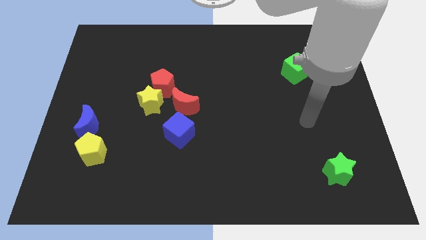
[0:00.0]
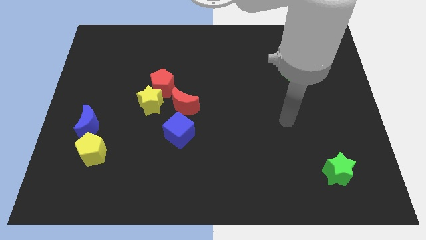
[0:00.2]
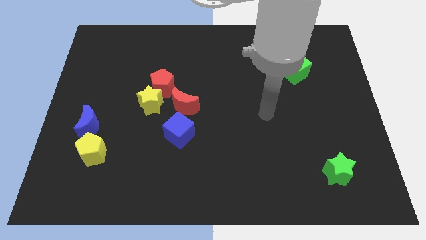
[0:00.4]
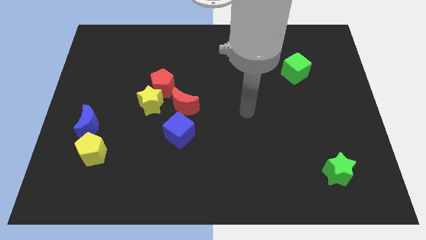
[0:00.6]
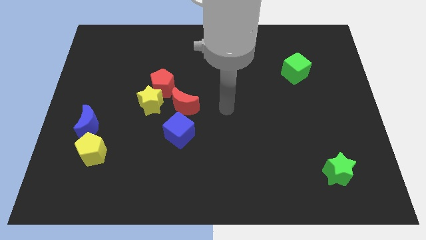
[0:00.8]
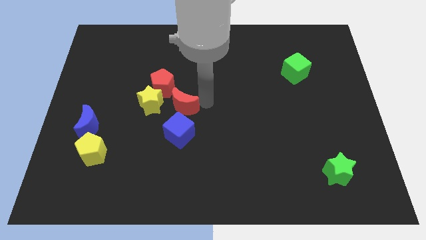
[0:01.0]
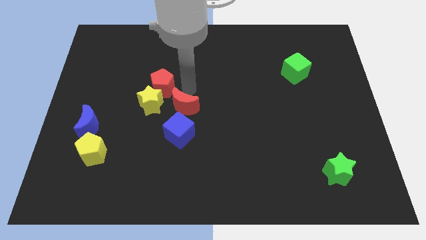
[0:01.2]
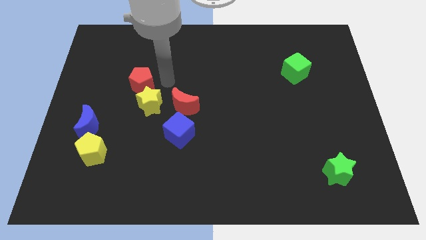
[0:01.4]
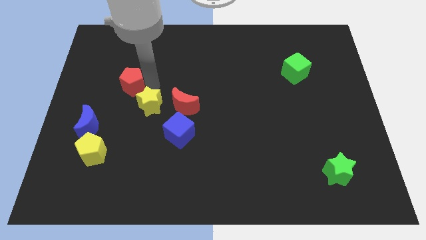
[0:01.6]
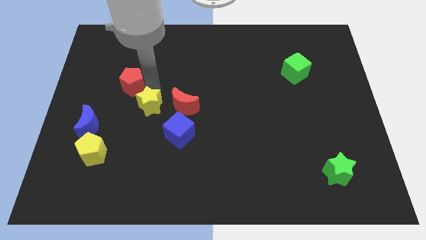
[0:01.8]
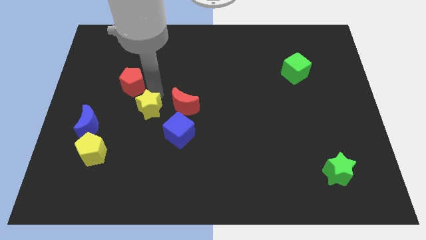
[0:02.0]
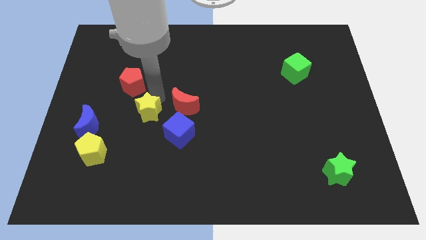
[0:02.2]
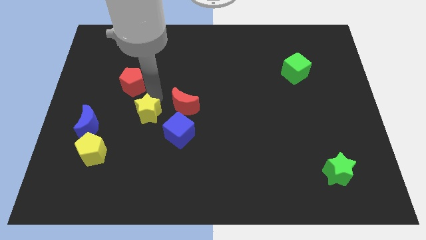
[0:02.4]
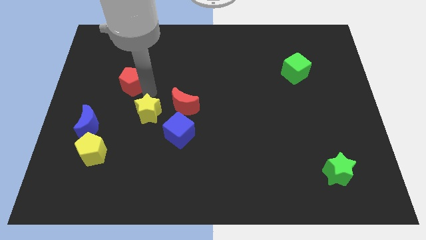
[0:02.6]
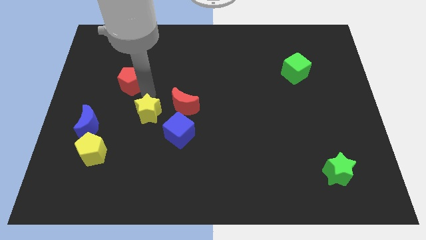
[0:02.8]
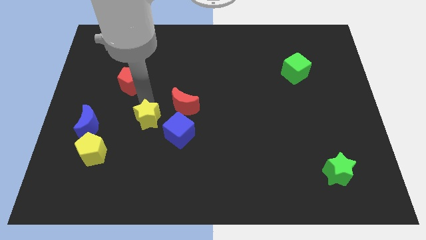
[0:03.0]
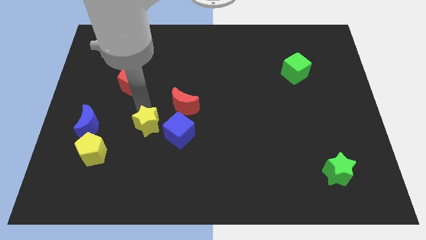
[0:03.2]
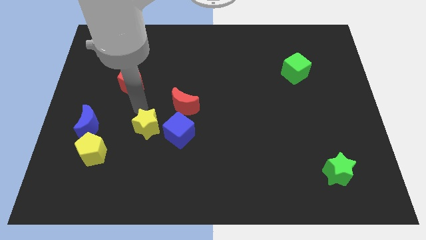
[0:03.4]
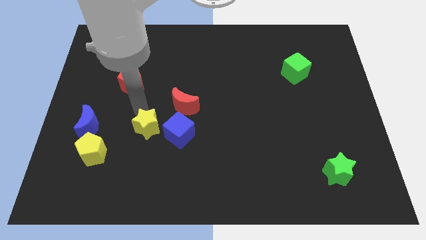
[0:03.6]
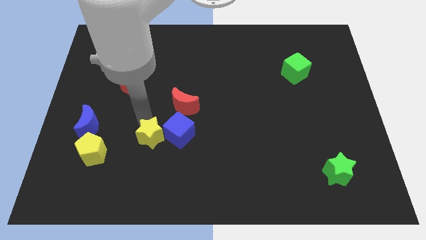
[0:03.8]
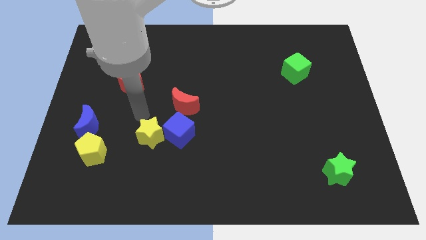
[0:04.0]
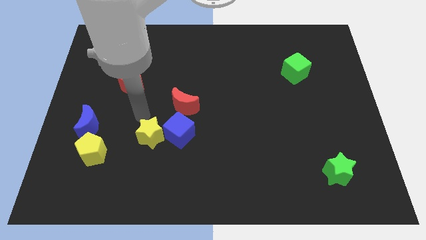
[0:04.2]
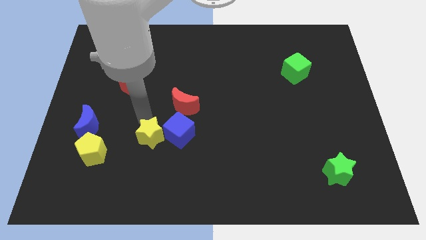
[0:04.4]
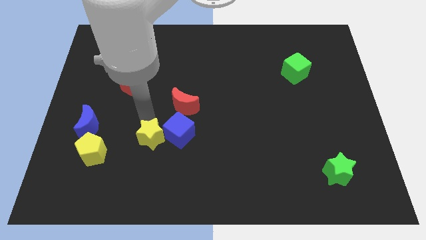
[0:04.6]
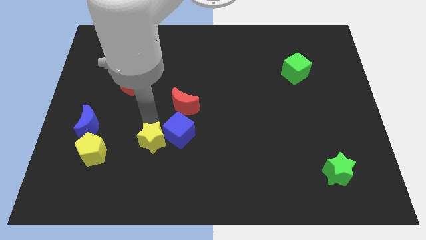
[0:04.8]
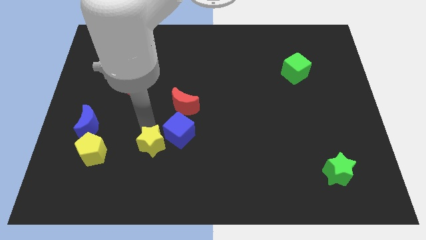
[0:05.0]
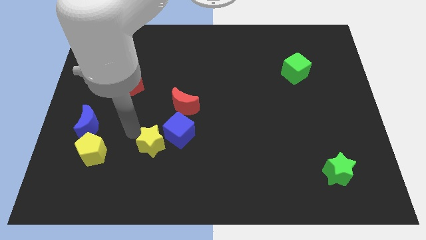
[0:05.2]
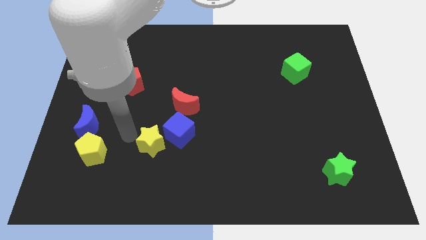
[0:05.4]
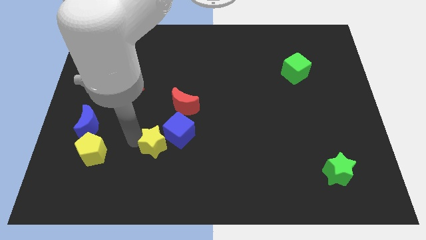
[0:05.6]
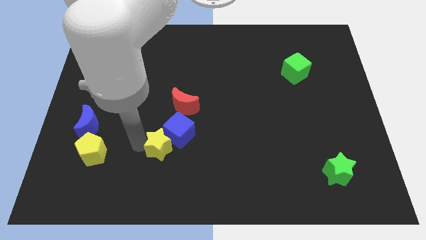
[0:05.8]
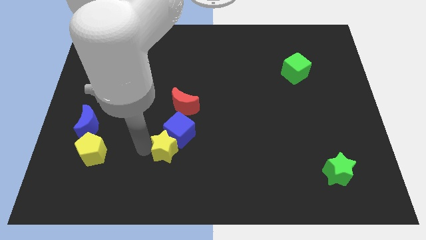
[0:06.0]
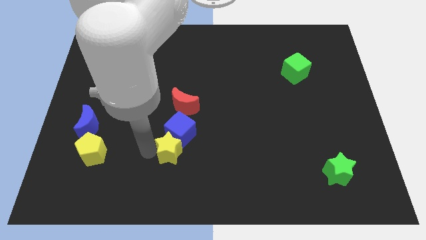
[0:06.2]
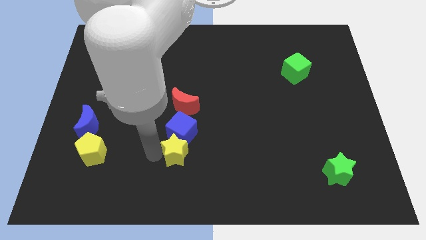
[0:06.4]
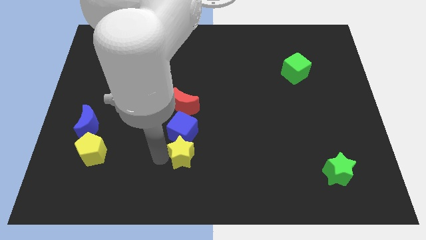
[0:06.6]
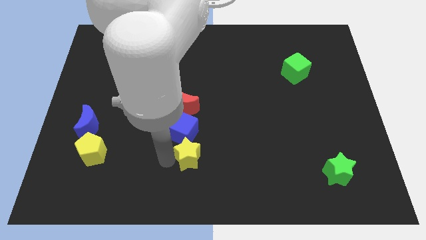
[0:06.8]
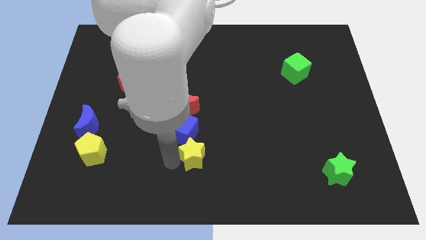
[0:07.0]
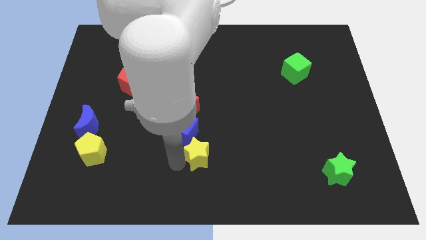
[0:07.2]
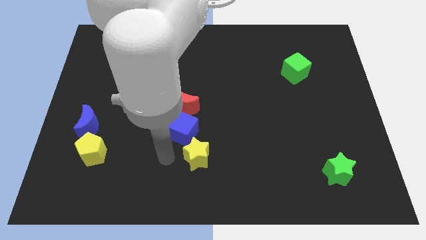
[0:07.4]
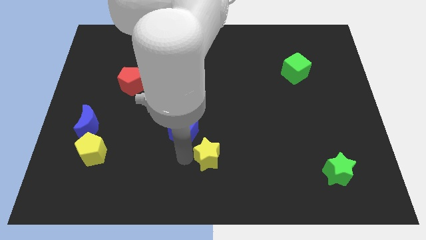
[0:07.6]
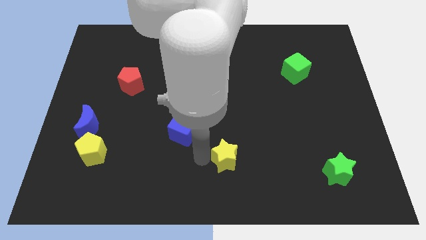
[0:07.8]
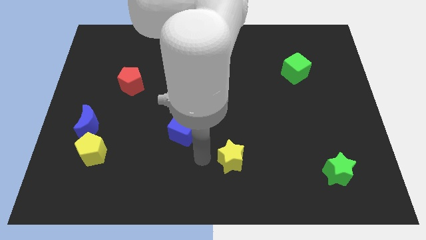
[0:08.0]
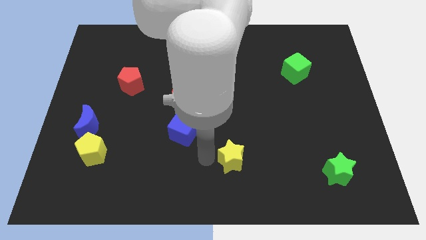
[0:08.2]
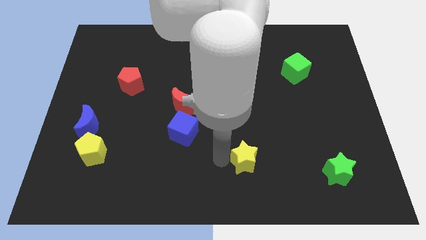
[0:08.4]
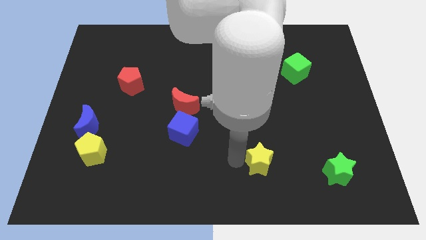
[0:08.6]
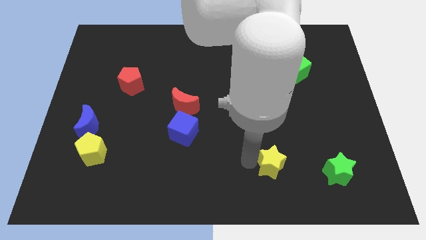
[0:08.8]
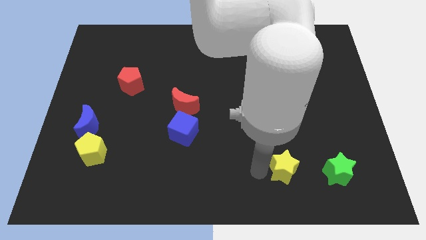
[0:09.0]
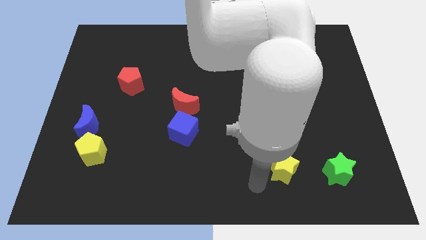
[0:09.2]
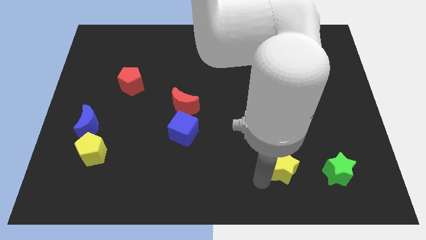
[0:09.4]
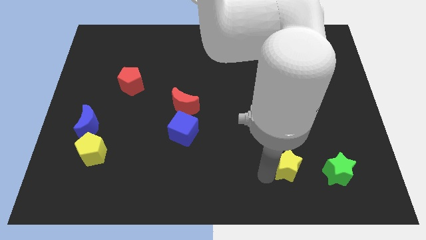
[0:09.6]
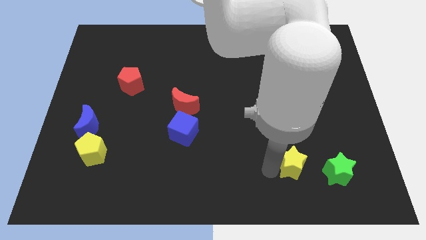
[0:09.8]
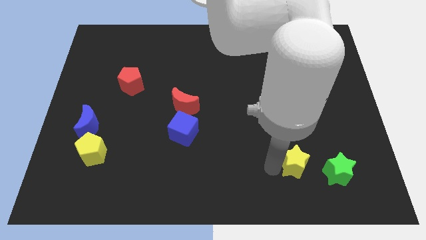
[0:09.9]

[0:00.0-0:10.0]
put the yellow star diagonally up and to the left of the green star

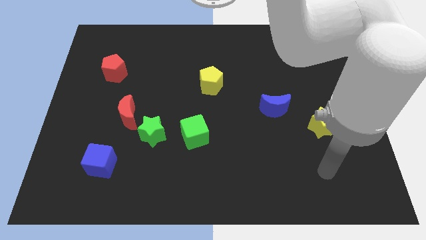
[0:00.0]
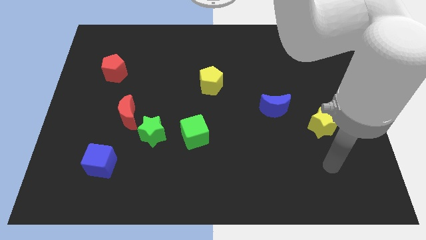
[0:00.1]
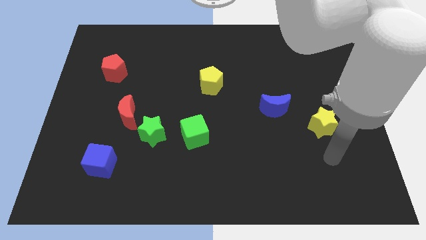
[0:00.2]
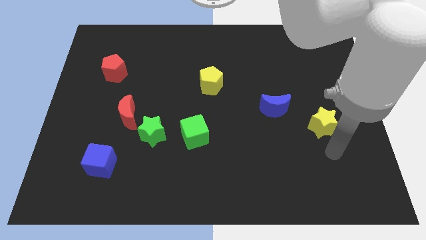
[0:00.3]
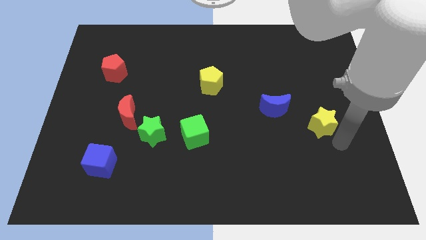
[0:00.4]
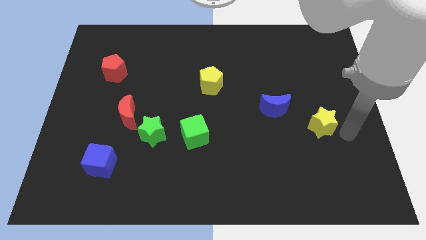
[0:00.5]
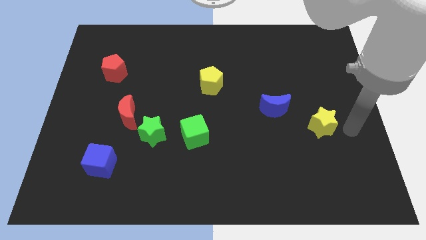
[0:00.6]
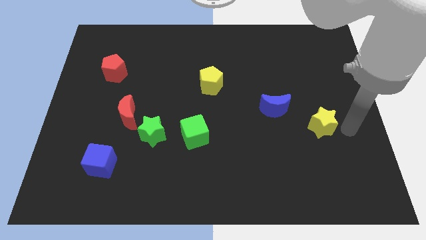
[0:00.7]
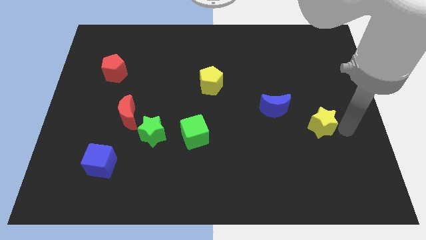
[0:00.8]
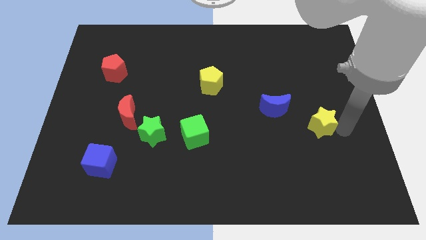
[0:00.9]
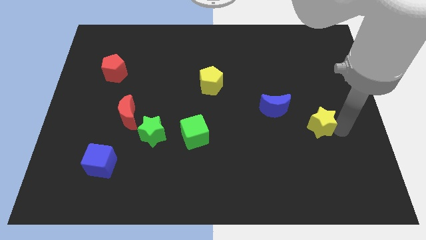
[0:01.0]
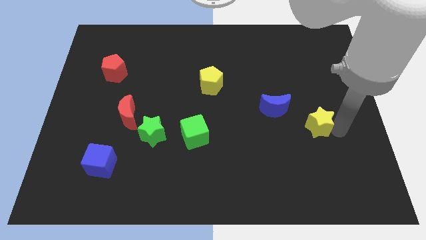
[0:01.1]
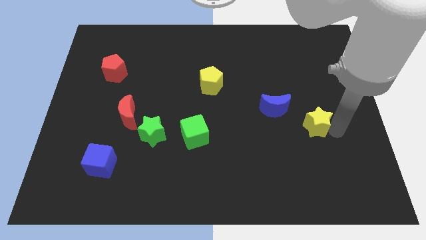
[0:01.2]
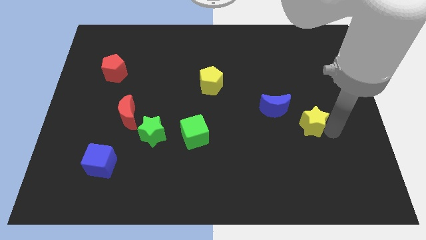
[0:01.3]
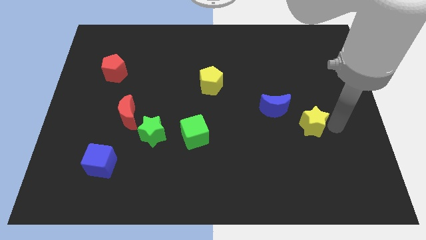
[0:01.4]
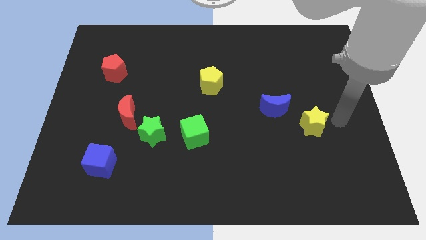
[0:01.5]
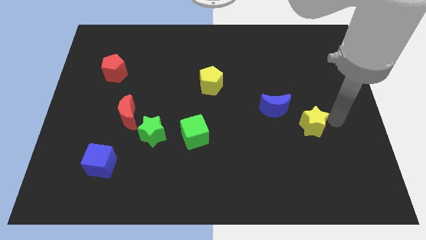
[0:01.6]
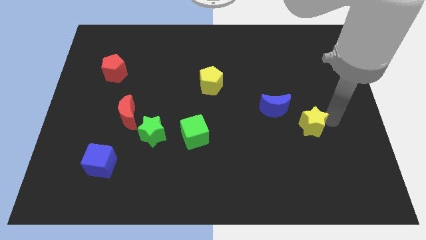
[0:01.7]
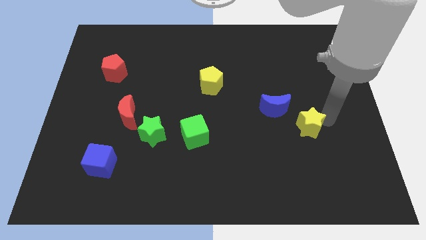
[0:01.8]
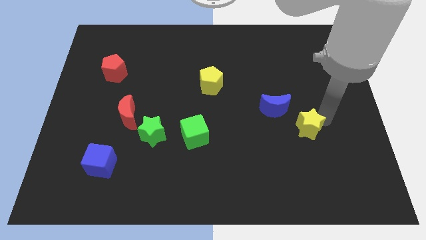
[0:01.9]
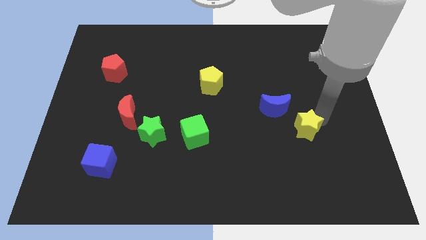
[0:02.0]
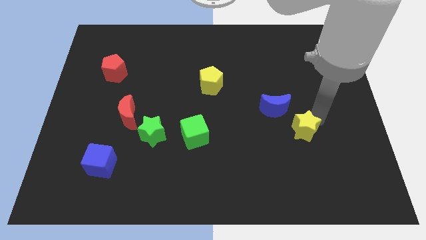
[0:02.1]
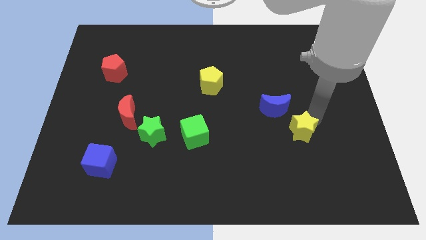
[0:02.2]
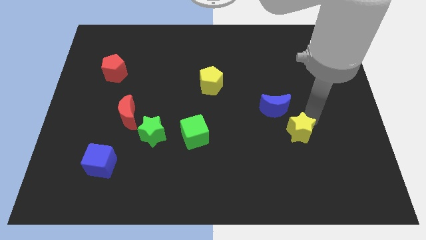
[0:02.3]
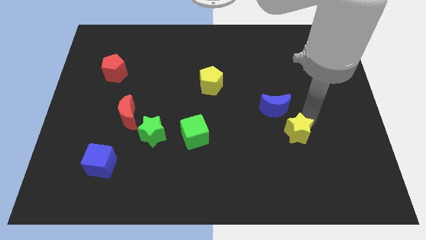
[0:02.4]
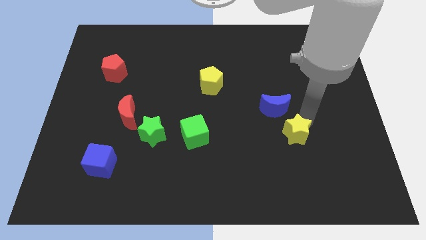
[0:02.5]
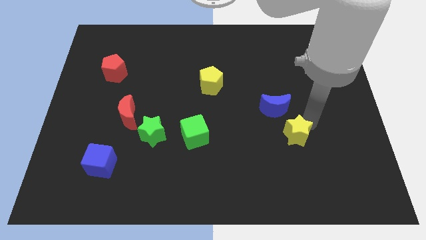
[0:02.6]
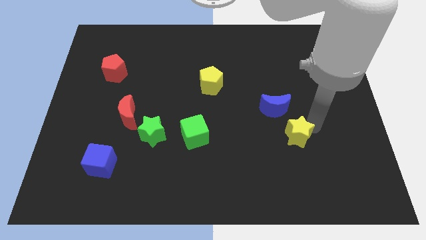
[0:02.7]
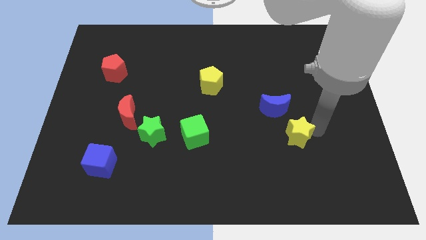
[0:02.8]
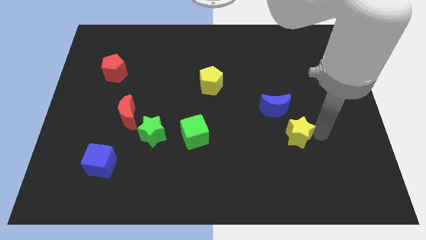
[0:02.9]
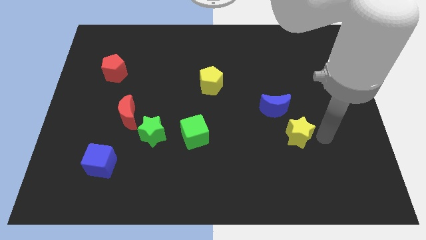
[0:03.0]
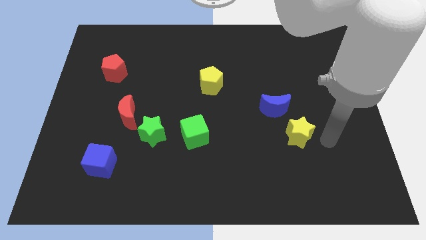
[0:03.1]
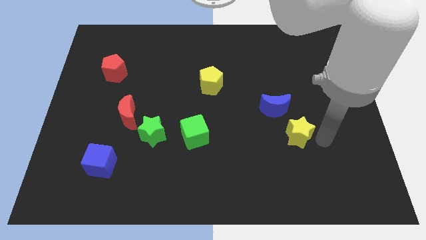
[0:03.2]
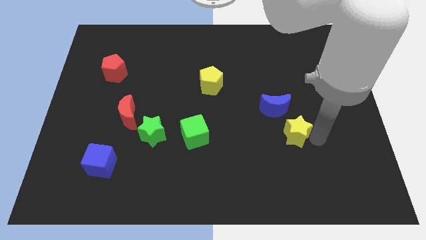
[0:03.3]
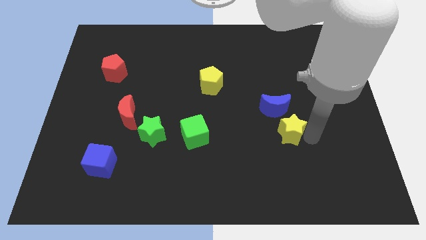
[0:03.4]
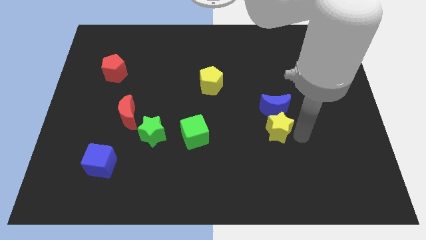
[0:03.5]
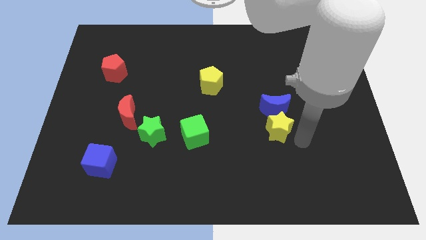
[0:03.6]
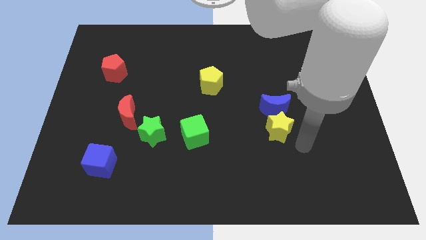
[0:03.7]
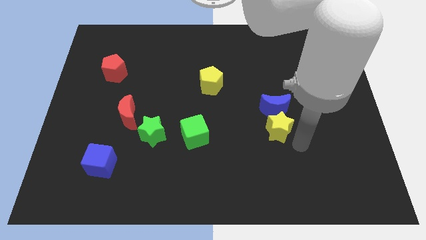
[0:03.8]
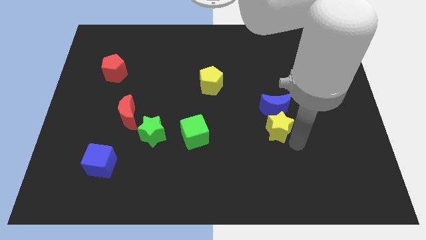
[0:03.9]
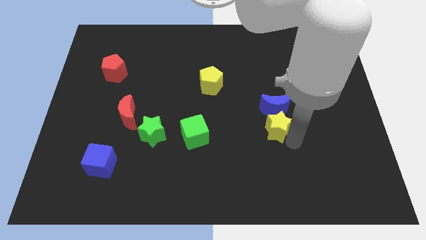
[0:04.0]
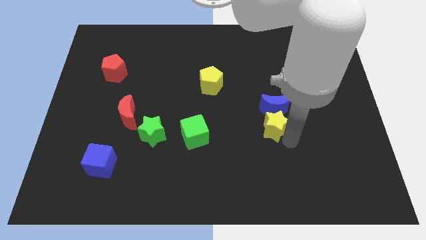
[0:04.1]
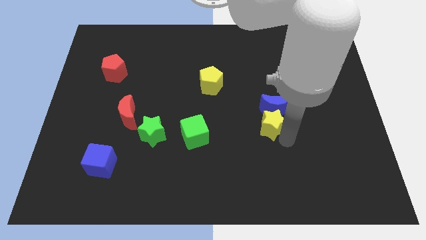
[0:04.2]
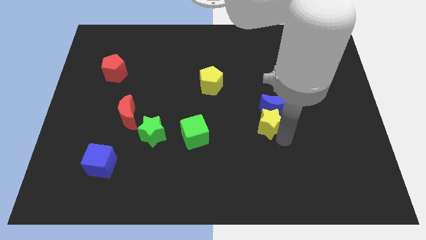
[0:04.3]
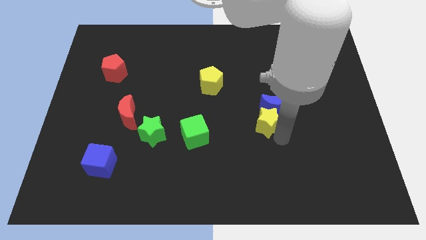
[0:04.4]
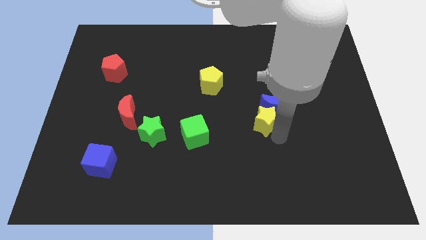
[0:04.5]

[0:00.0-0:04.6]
slide the yellow star just left of the blue moon
